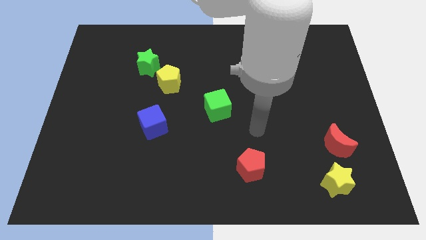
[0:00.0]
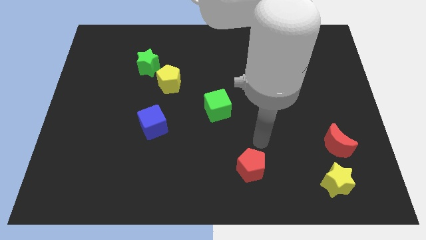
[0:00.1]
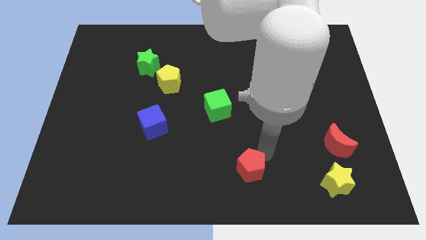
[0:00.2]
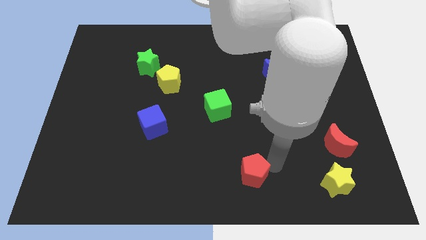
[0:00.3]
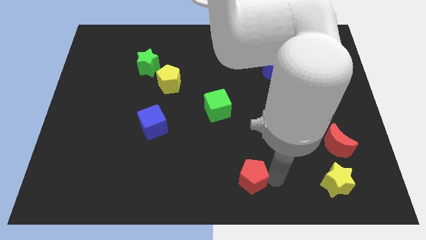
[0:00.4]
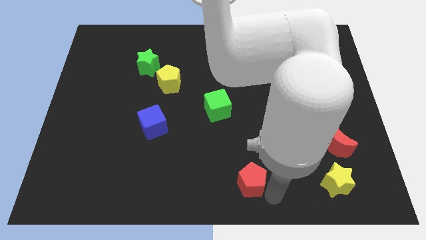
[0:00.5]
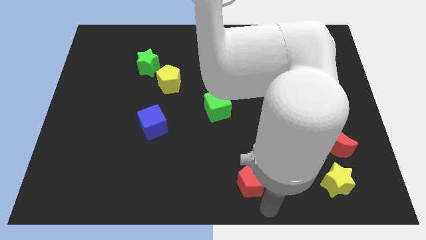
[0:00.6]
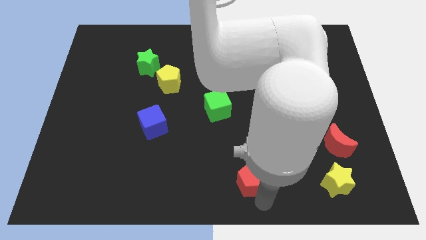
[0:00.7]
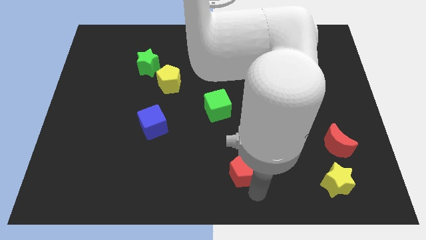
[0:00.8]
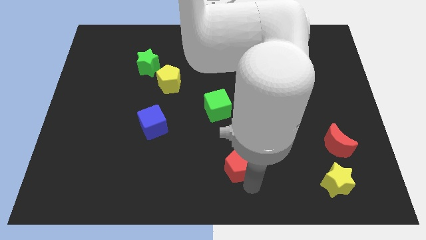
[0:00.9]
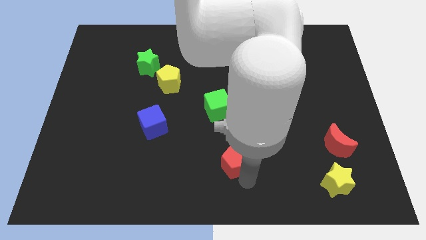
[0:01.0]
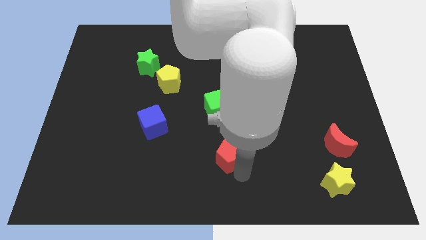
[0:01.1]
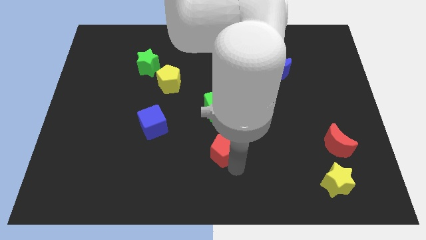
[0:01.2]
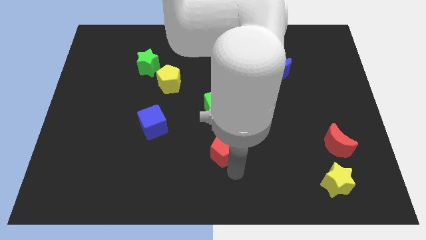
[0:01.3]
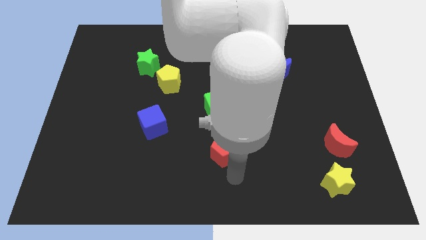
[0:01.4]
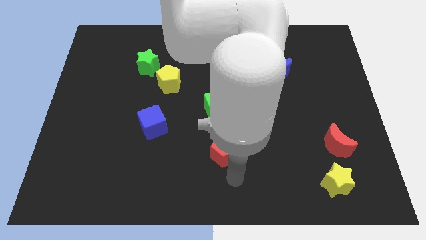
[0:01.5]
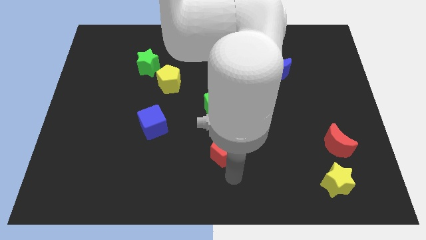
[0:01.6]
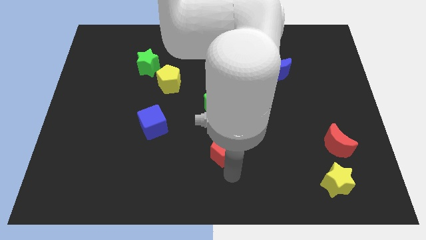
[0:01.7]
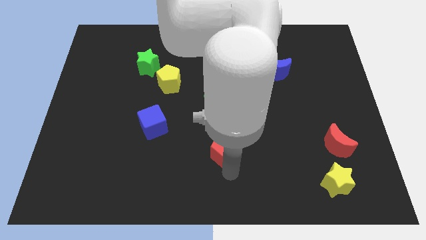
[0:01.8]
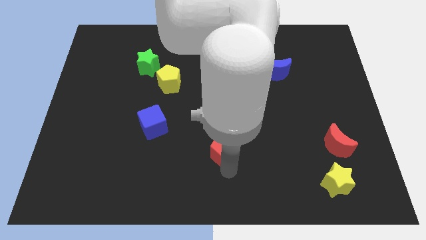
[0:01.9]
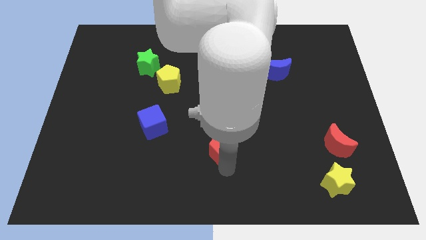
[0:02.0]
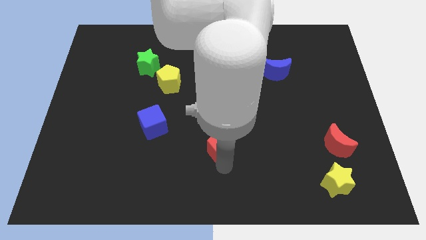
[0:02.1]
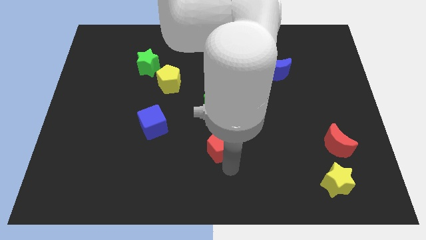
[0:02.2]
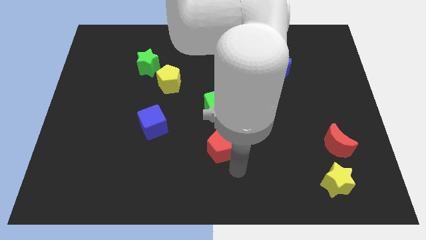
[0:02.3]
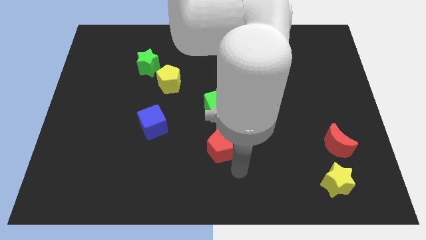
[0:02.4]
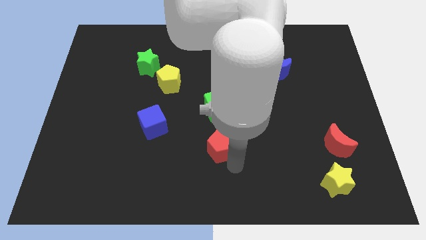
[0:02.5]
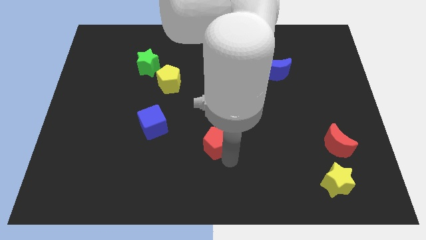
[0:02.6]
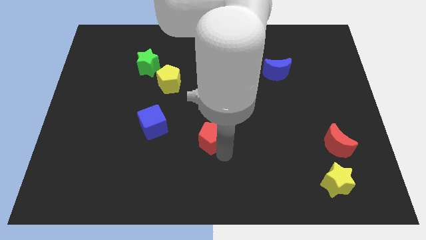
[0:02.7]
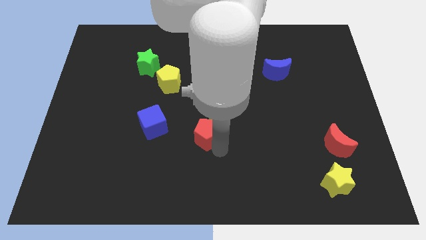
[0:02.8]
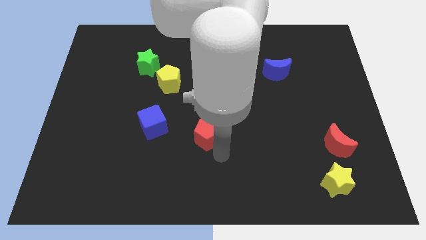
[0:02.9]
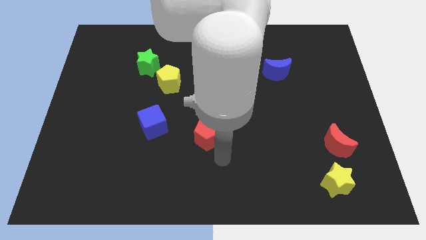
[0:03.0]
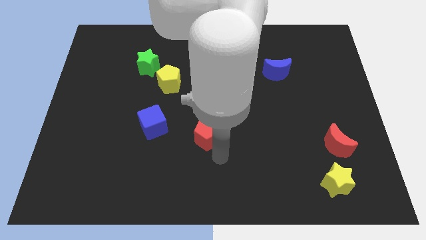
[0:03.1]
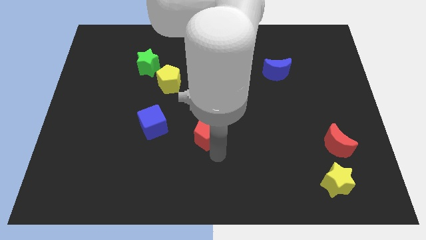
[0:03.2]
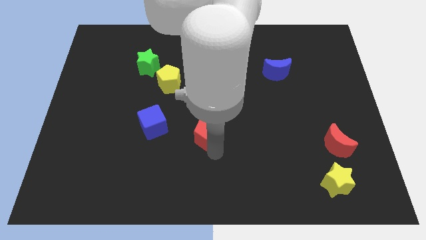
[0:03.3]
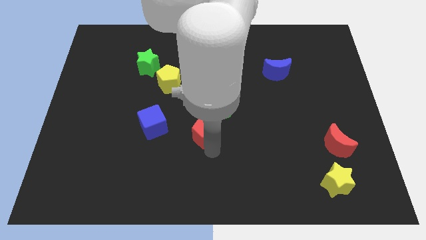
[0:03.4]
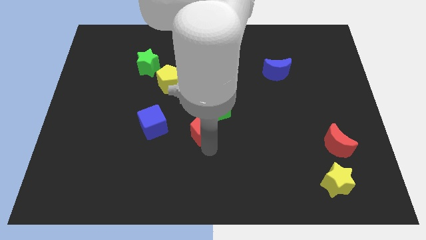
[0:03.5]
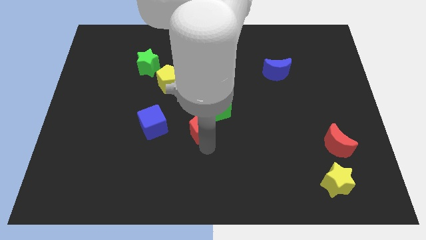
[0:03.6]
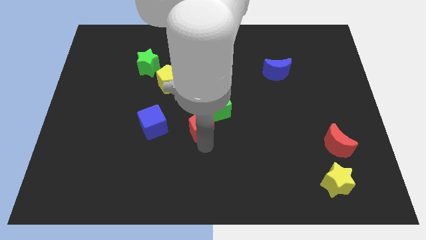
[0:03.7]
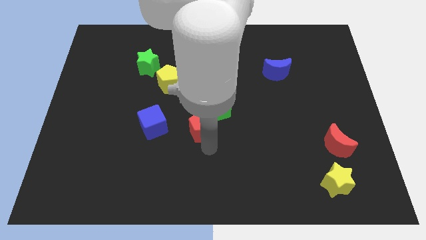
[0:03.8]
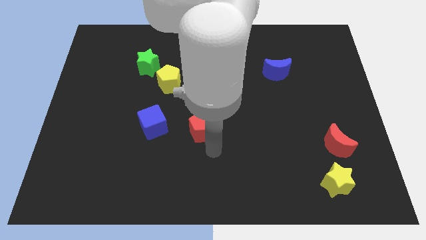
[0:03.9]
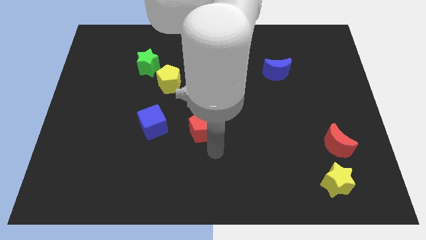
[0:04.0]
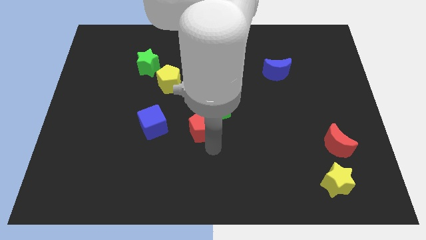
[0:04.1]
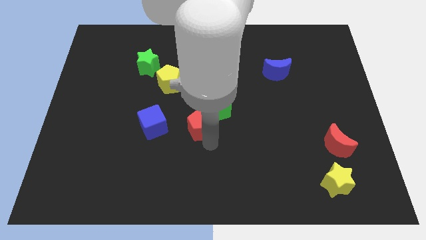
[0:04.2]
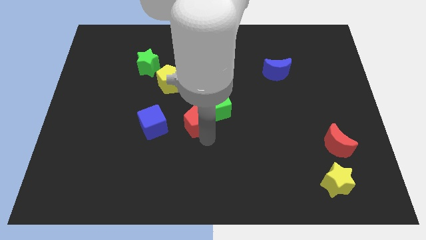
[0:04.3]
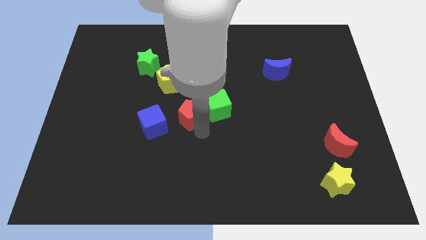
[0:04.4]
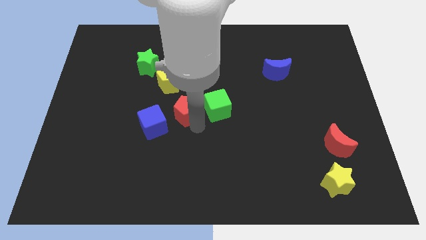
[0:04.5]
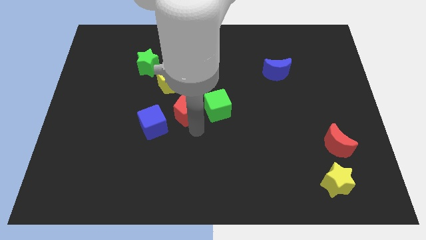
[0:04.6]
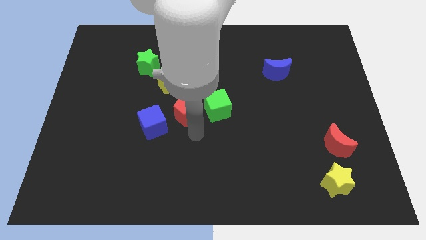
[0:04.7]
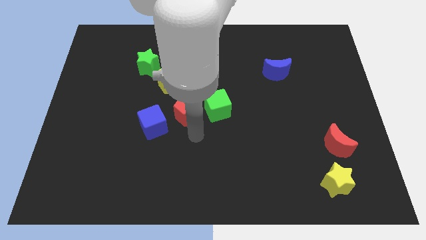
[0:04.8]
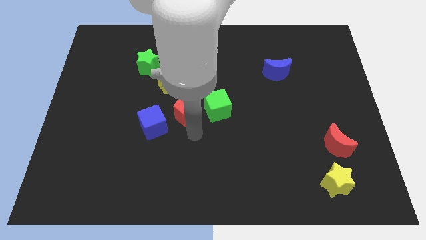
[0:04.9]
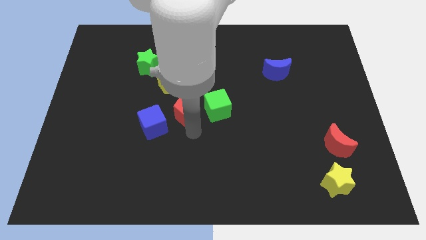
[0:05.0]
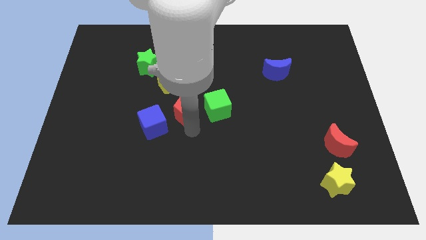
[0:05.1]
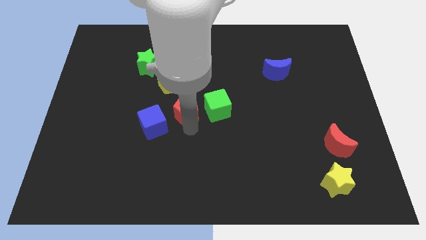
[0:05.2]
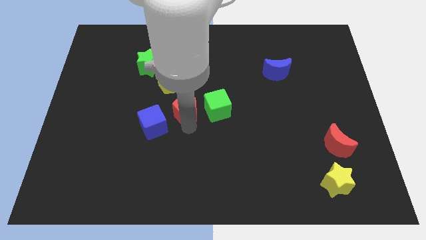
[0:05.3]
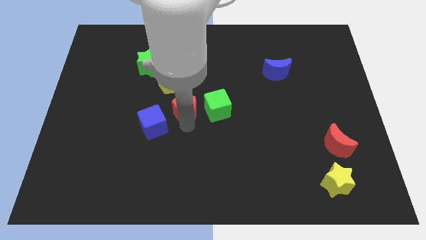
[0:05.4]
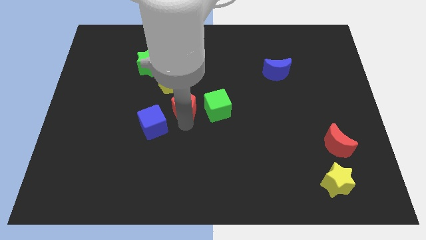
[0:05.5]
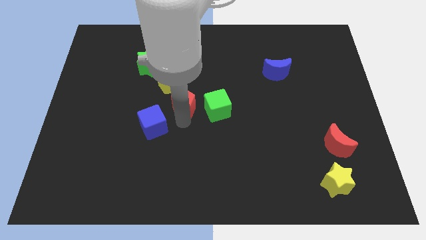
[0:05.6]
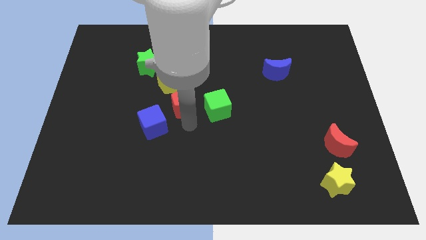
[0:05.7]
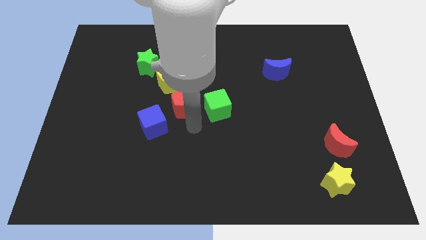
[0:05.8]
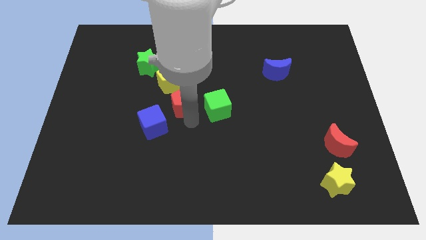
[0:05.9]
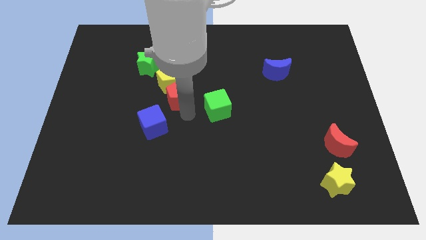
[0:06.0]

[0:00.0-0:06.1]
slide the red pentagon to the yellow pentagon

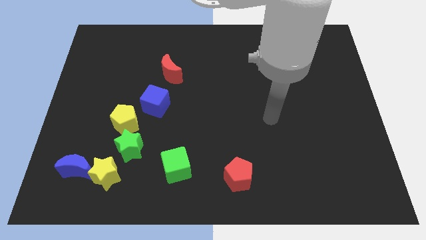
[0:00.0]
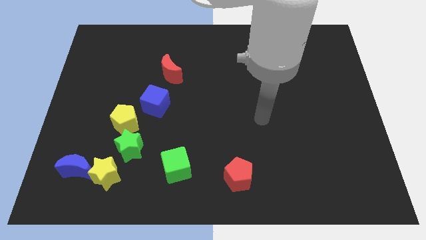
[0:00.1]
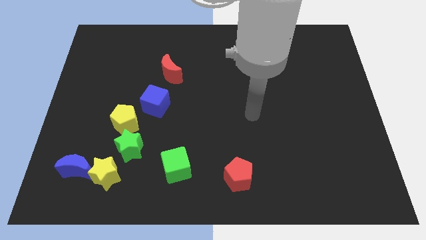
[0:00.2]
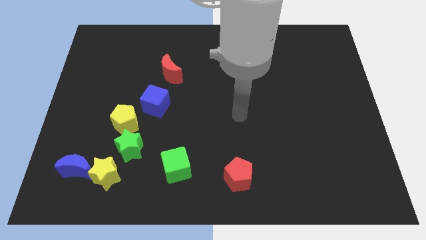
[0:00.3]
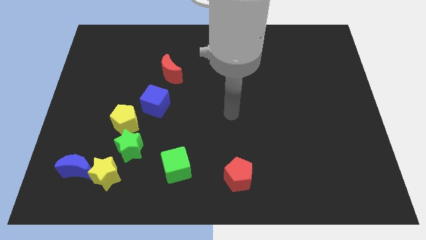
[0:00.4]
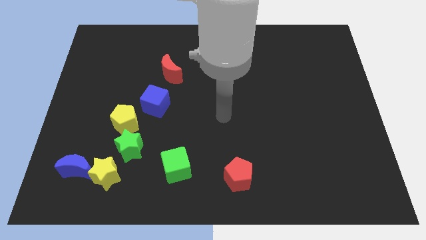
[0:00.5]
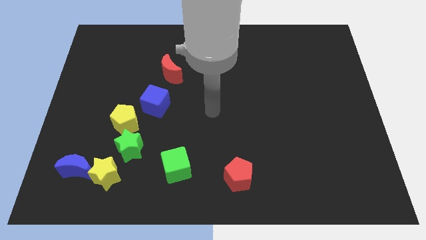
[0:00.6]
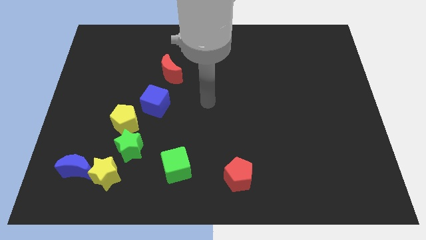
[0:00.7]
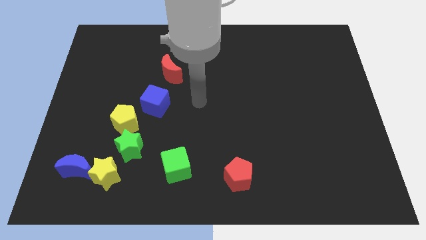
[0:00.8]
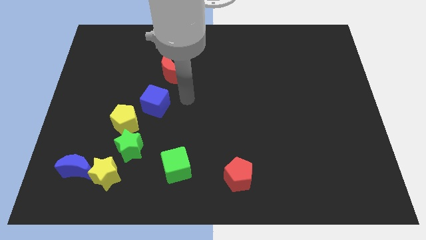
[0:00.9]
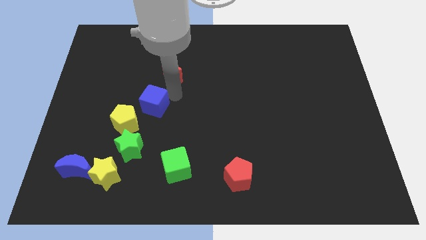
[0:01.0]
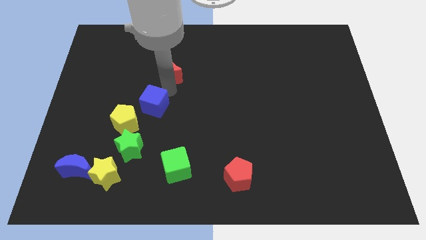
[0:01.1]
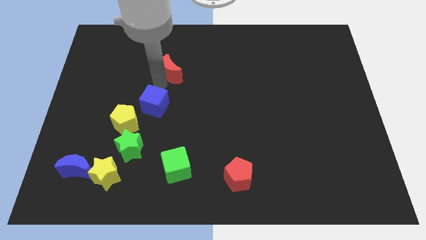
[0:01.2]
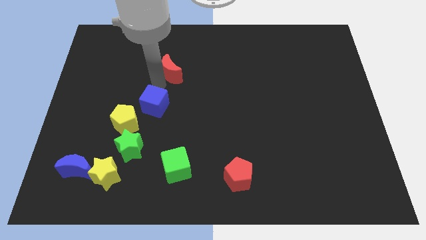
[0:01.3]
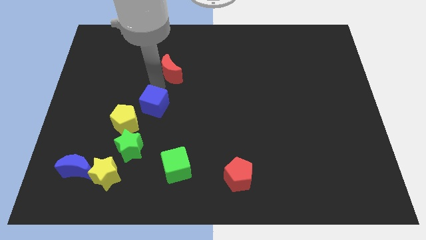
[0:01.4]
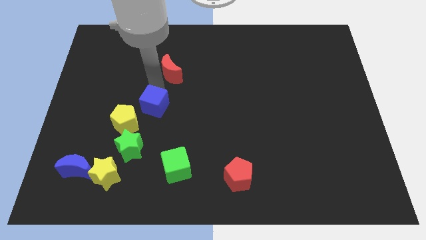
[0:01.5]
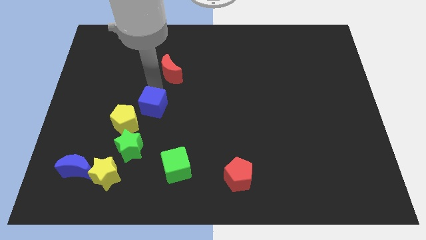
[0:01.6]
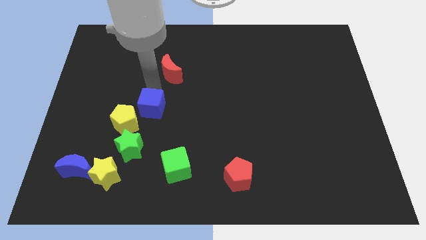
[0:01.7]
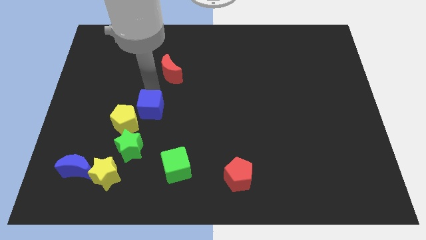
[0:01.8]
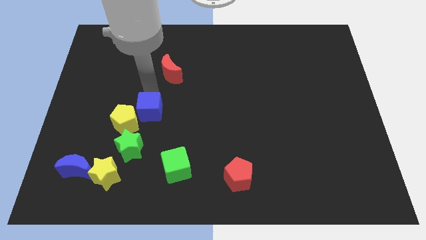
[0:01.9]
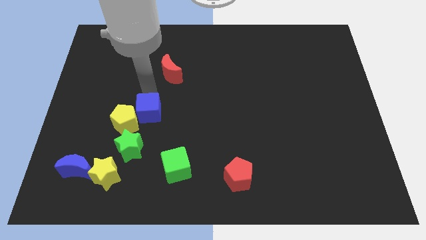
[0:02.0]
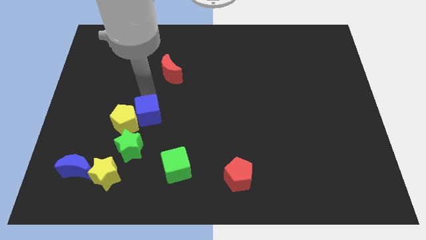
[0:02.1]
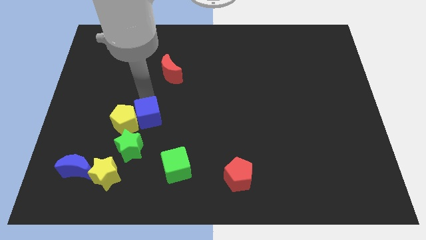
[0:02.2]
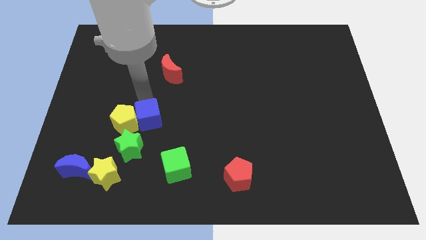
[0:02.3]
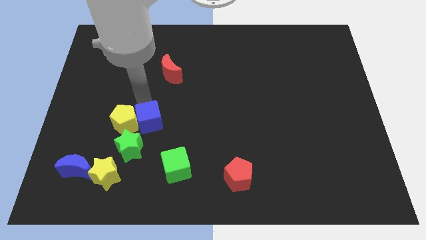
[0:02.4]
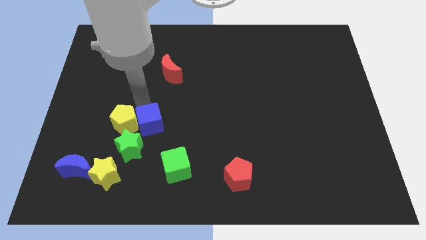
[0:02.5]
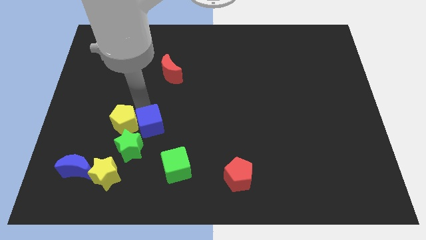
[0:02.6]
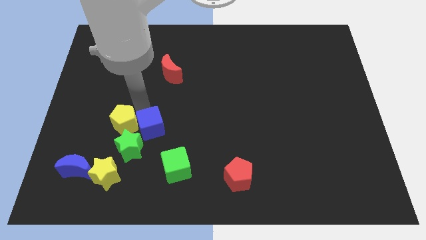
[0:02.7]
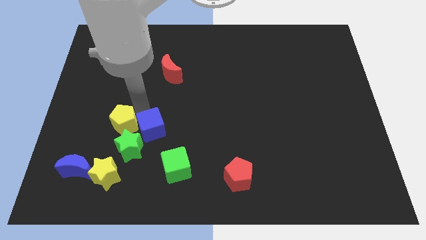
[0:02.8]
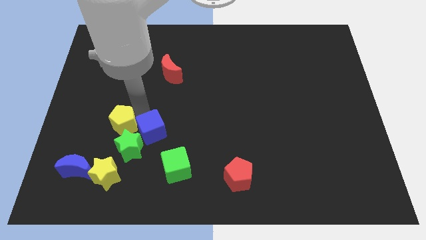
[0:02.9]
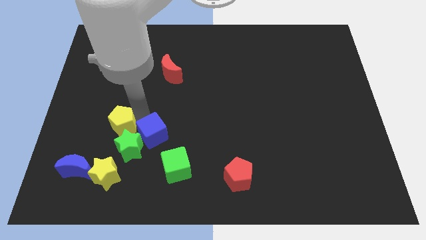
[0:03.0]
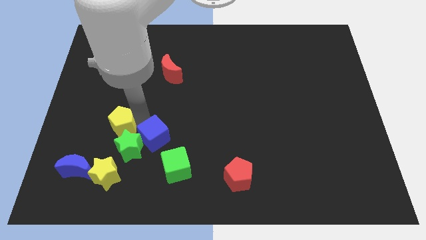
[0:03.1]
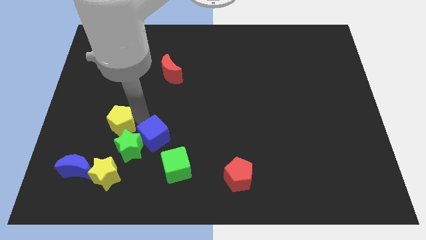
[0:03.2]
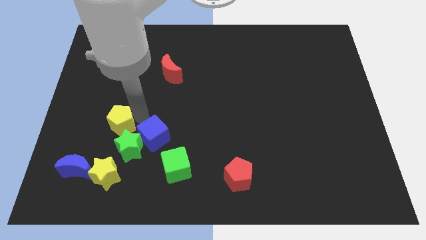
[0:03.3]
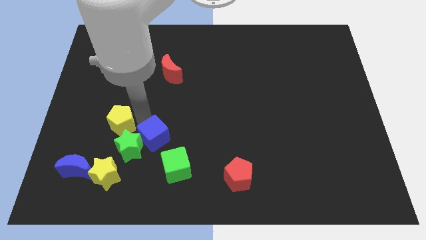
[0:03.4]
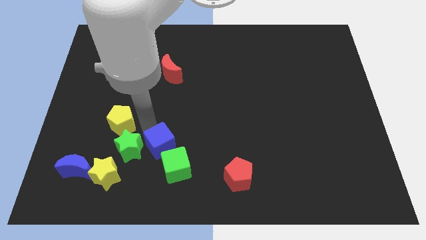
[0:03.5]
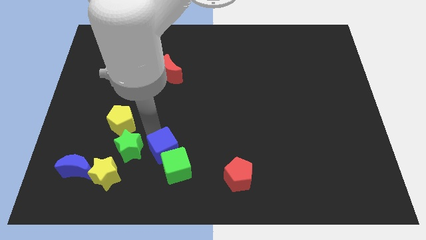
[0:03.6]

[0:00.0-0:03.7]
slide the blue cube to the green cube
